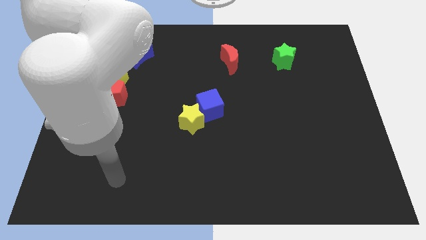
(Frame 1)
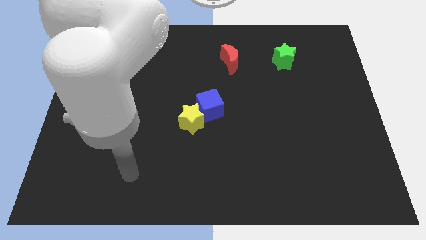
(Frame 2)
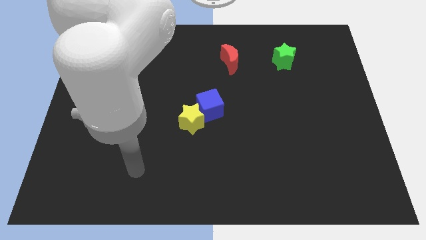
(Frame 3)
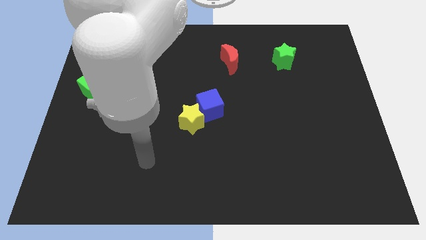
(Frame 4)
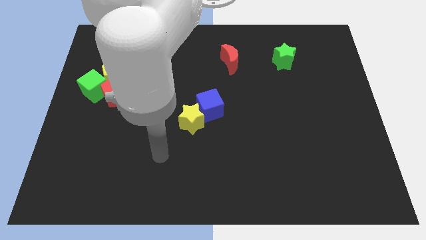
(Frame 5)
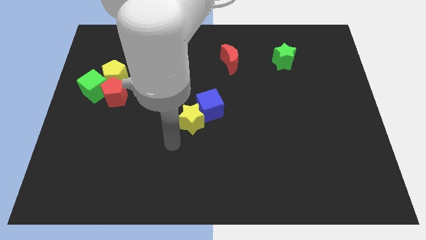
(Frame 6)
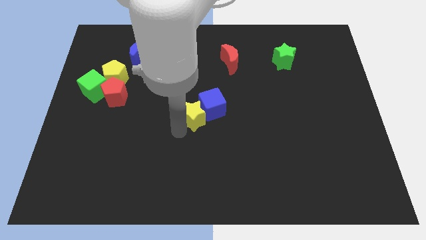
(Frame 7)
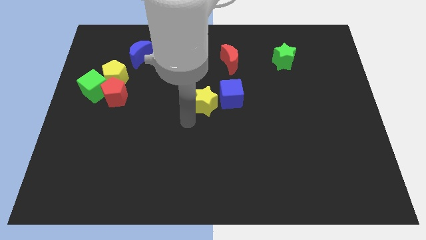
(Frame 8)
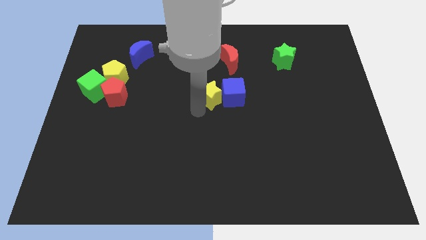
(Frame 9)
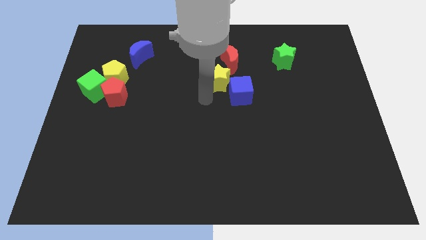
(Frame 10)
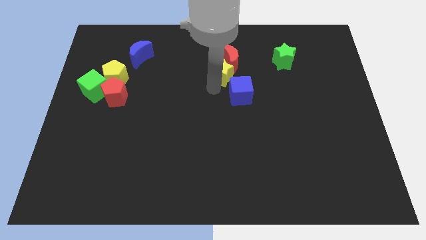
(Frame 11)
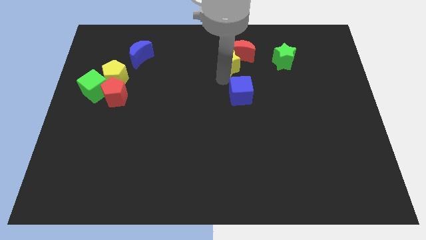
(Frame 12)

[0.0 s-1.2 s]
move the blue cube away from the yellow star

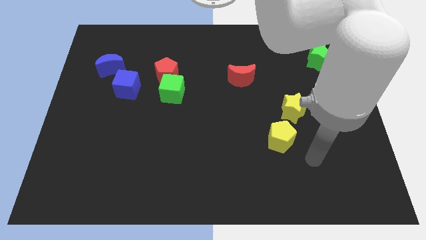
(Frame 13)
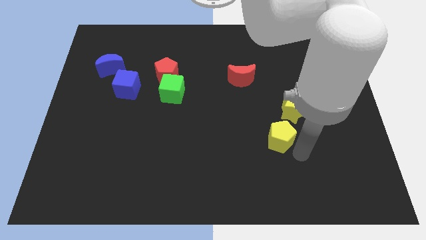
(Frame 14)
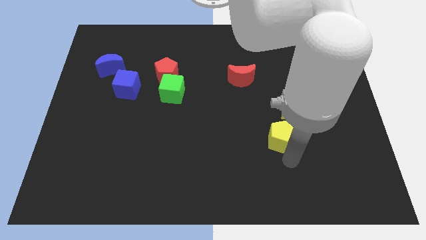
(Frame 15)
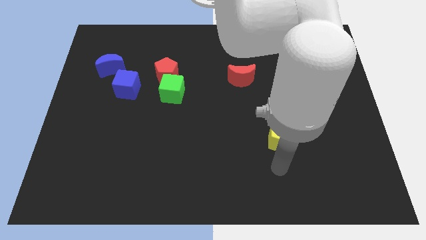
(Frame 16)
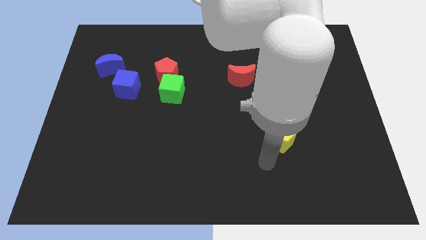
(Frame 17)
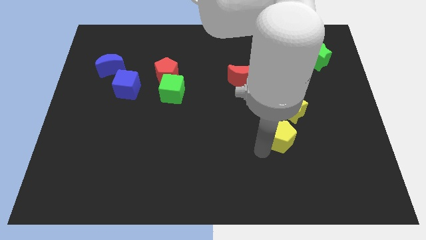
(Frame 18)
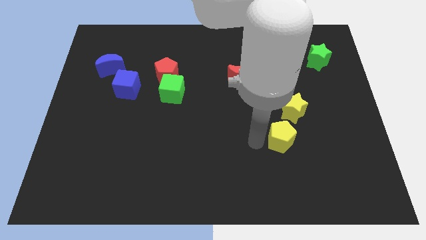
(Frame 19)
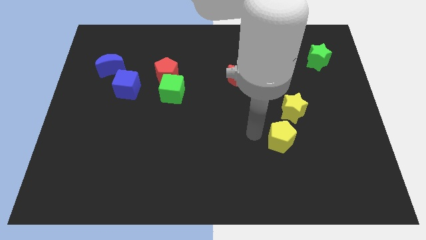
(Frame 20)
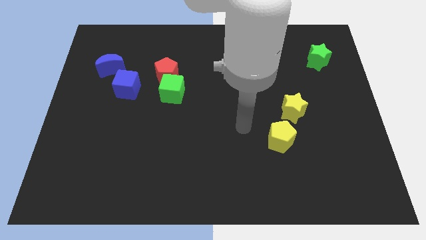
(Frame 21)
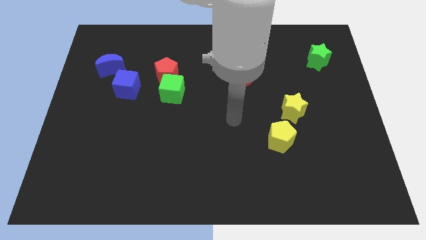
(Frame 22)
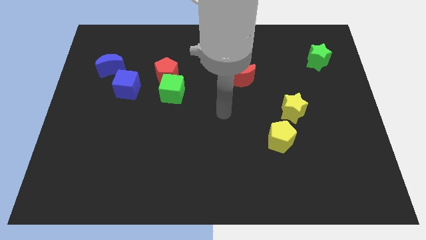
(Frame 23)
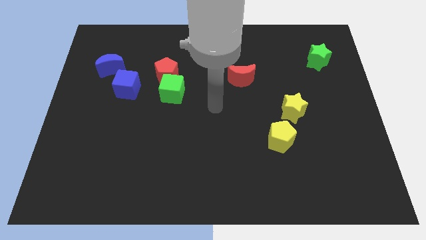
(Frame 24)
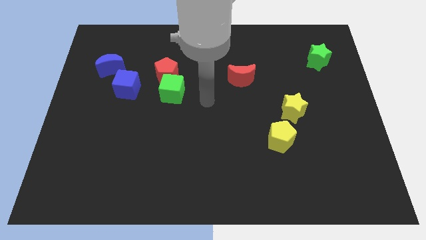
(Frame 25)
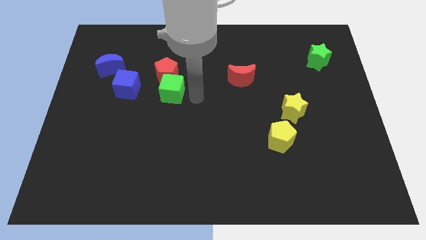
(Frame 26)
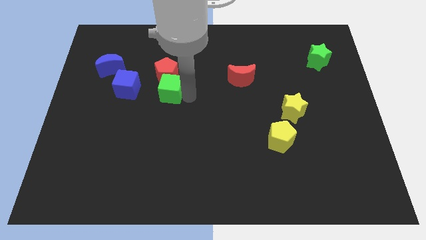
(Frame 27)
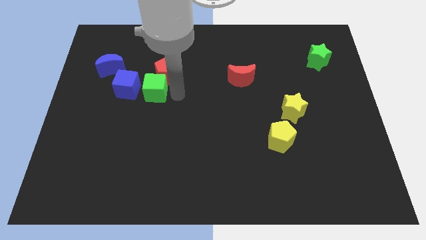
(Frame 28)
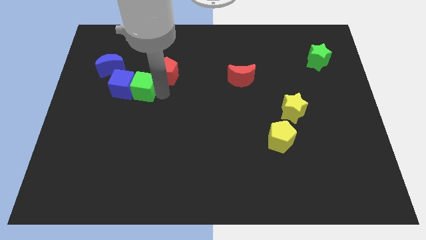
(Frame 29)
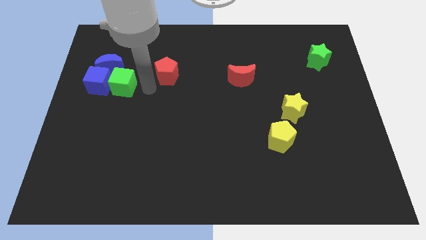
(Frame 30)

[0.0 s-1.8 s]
separate the red pentagon from the green cube

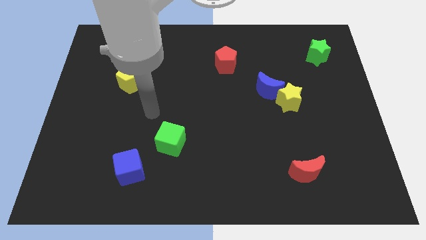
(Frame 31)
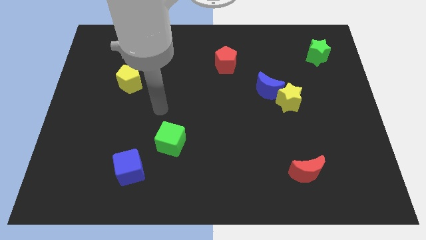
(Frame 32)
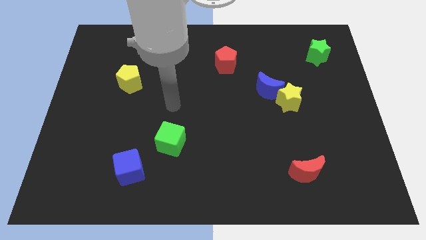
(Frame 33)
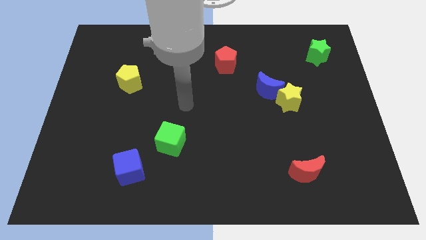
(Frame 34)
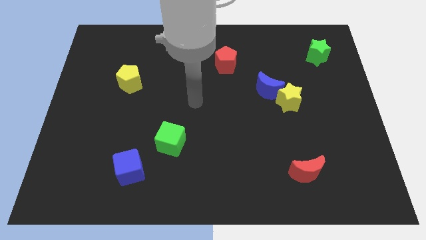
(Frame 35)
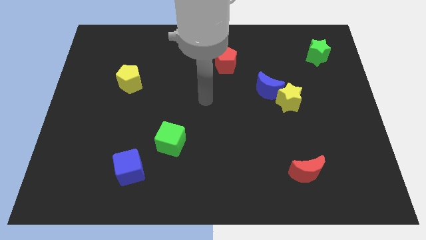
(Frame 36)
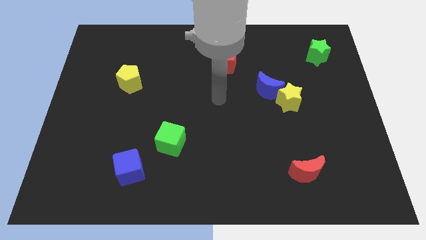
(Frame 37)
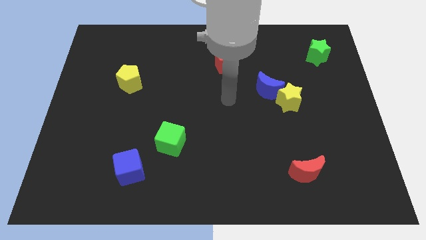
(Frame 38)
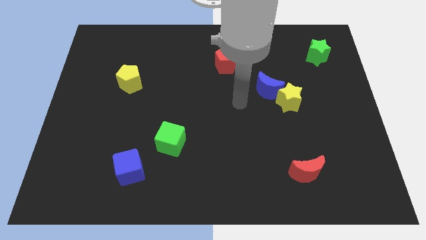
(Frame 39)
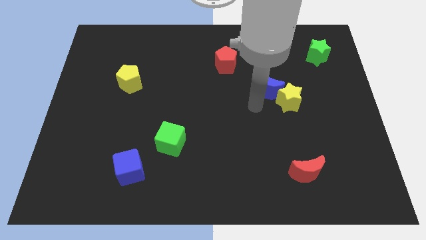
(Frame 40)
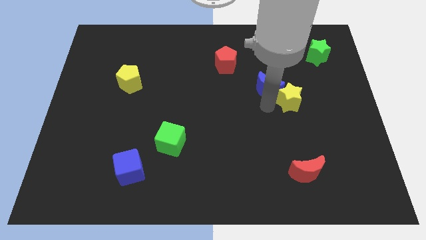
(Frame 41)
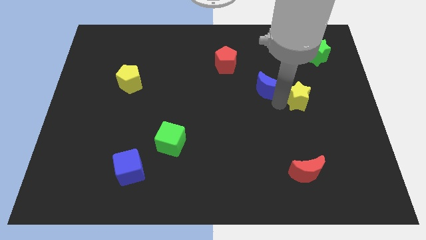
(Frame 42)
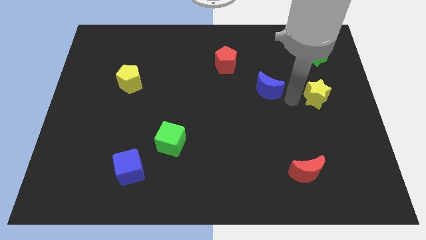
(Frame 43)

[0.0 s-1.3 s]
separate the blue moon from the yellow star

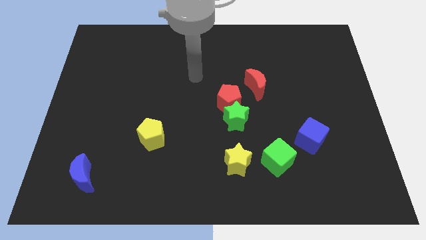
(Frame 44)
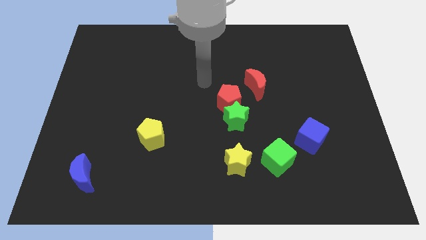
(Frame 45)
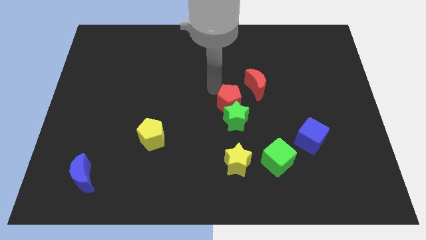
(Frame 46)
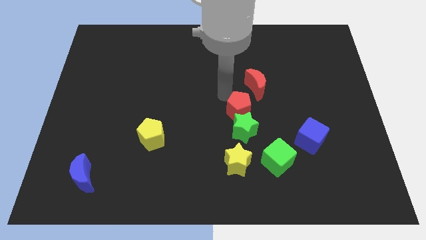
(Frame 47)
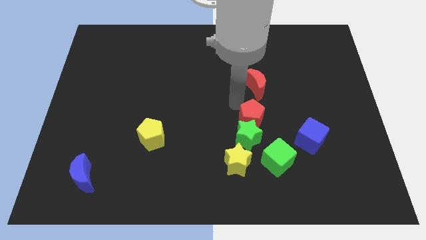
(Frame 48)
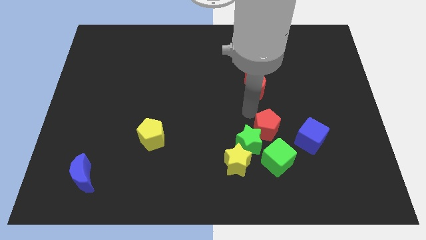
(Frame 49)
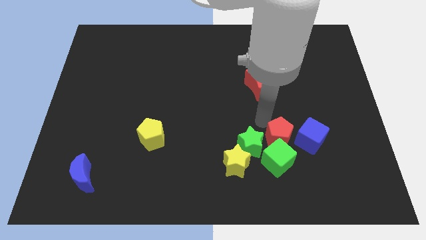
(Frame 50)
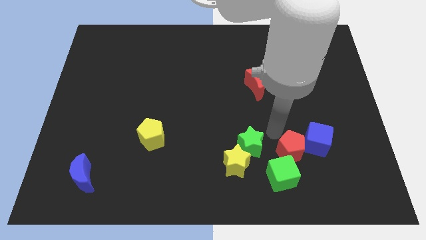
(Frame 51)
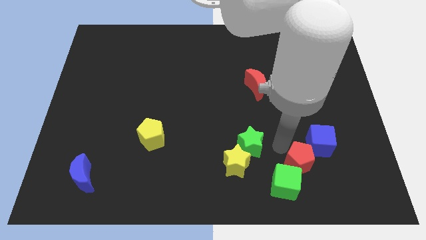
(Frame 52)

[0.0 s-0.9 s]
pull the green star apart from the red pentagon

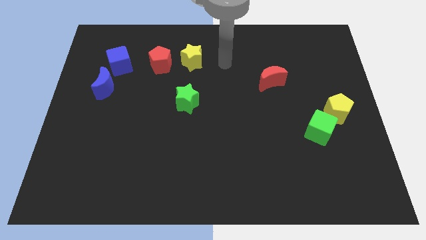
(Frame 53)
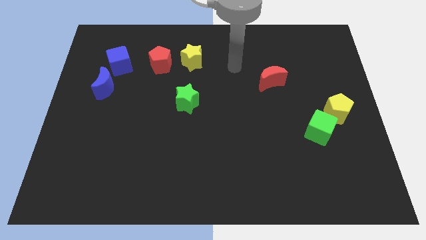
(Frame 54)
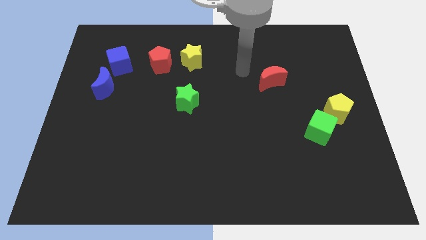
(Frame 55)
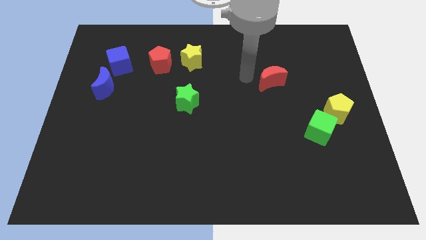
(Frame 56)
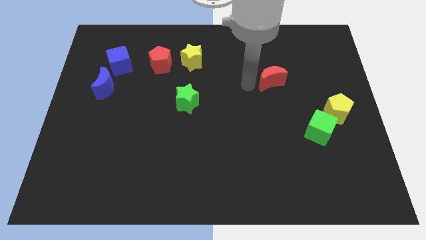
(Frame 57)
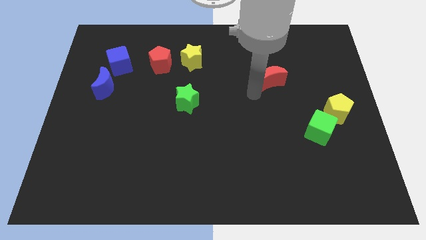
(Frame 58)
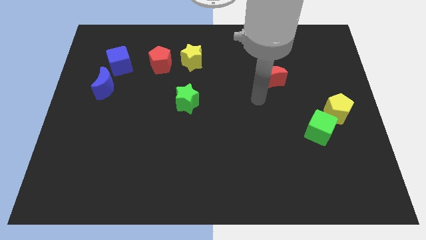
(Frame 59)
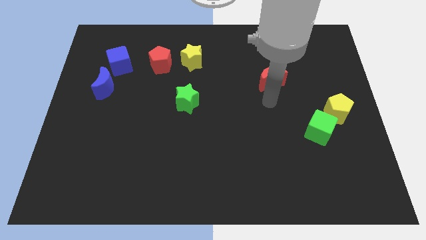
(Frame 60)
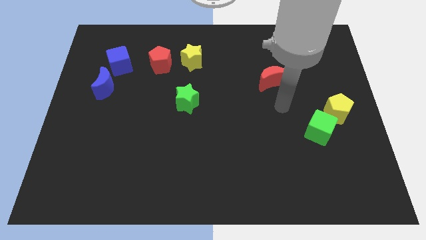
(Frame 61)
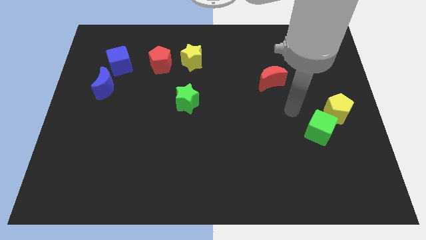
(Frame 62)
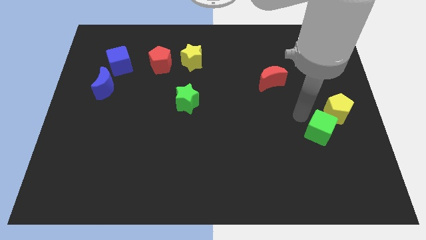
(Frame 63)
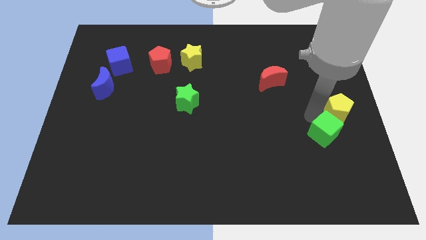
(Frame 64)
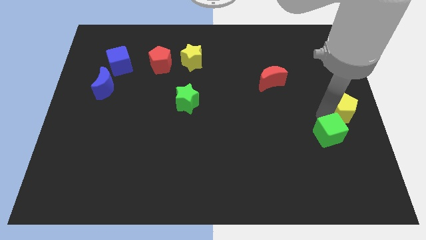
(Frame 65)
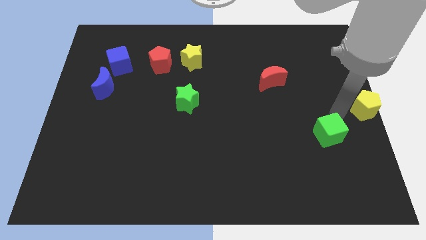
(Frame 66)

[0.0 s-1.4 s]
move the green cube away from the yellow pentagon

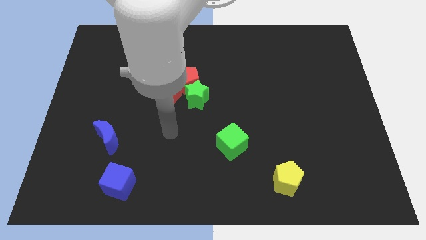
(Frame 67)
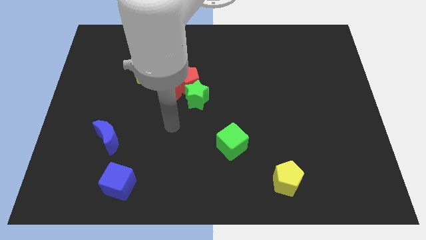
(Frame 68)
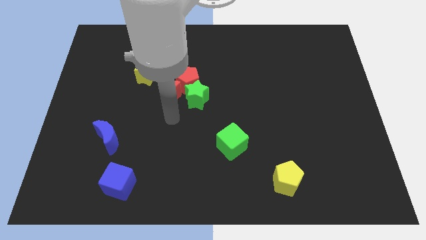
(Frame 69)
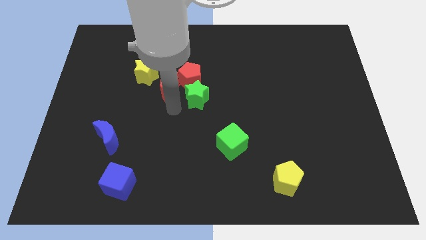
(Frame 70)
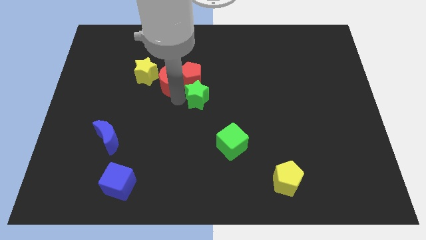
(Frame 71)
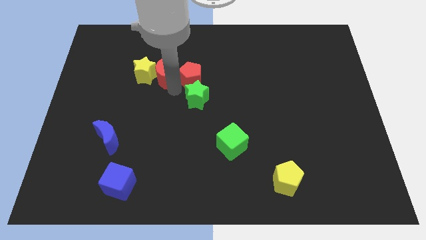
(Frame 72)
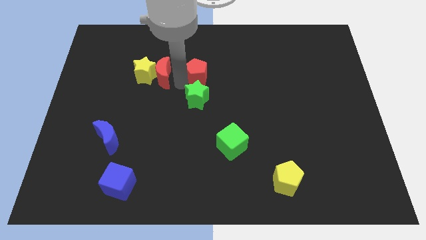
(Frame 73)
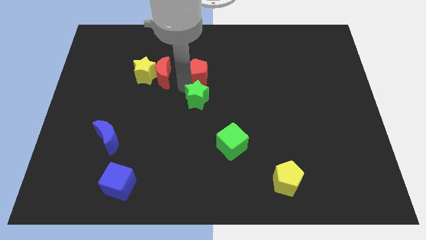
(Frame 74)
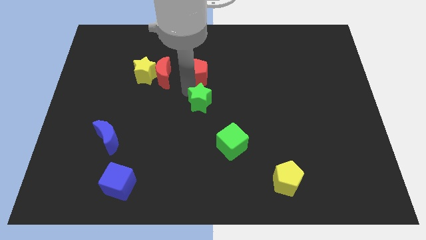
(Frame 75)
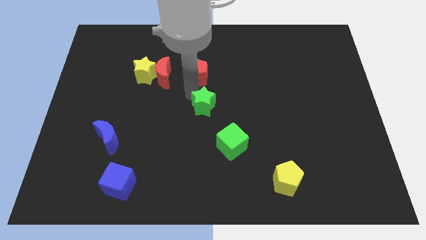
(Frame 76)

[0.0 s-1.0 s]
move the green star away from the red pentagon and red moon

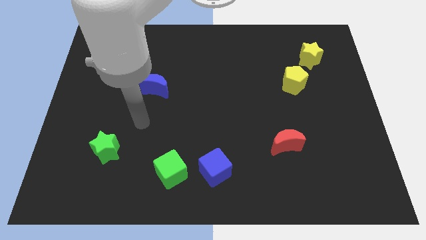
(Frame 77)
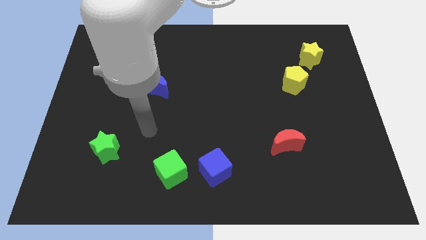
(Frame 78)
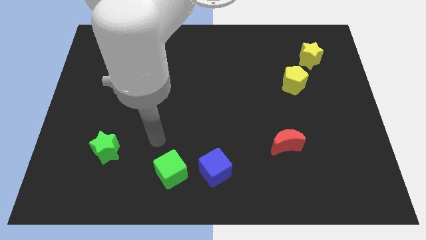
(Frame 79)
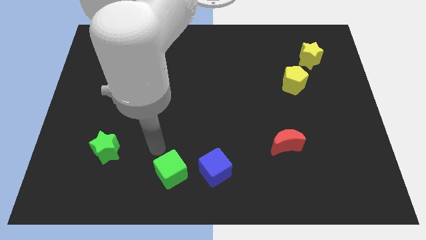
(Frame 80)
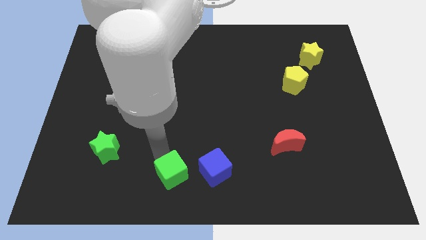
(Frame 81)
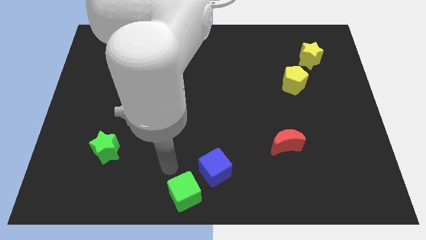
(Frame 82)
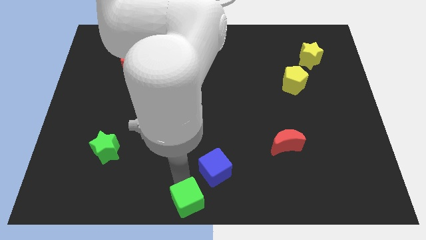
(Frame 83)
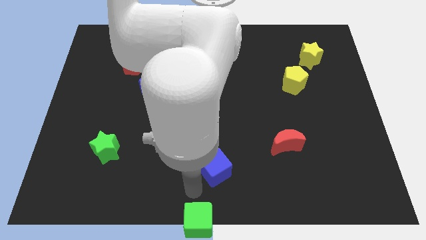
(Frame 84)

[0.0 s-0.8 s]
move the blue cube away from the green cube

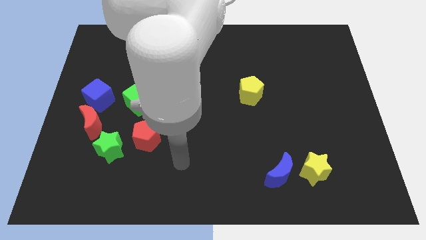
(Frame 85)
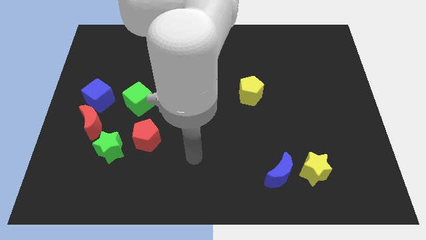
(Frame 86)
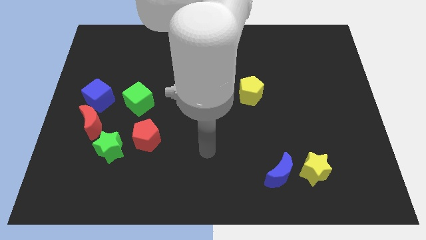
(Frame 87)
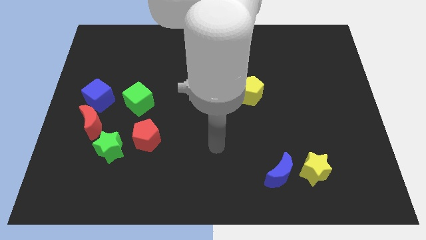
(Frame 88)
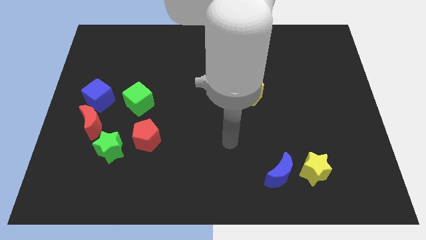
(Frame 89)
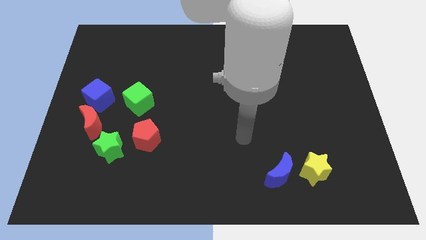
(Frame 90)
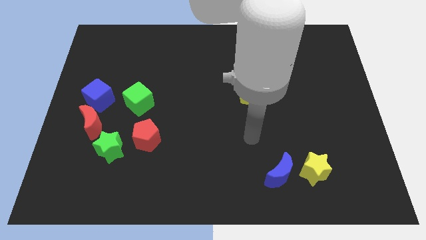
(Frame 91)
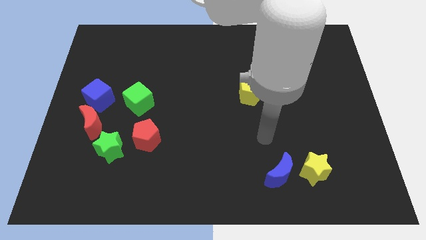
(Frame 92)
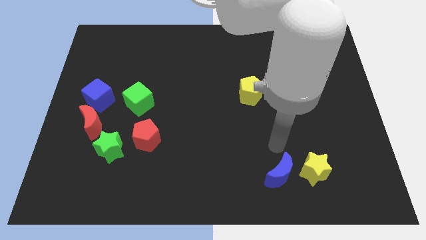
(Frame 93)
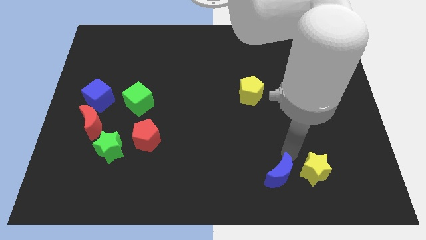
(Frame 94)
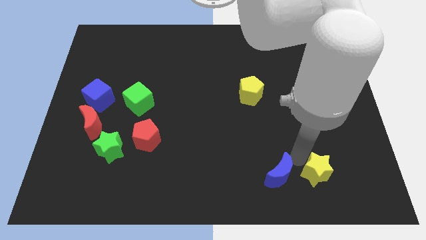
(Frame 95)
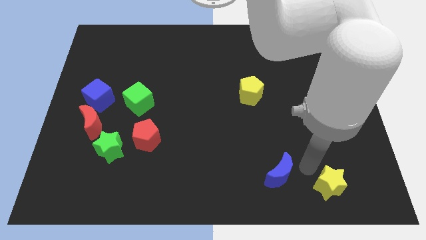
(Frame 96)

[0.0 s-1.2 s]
move the blue moon away from the yellow star
